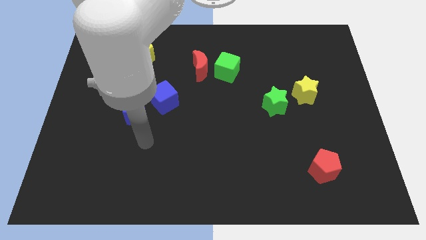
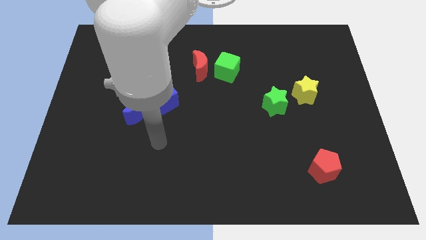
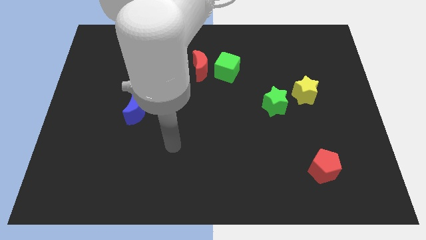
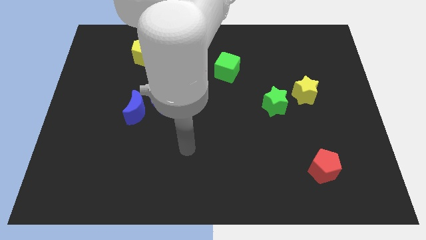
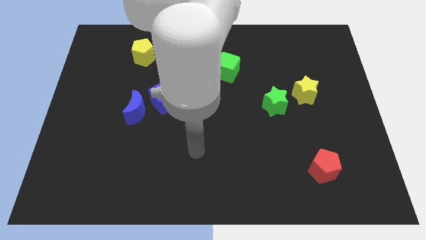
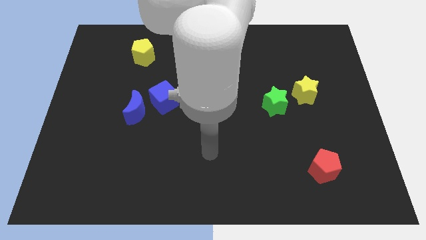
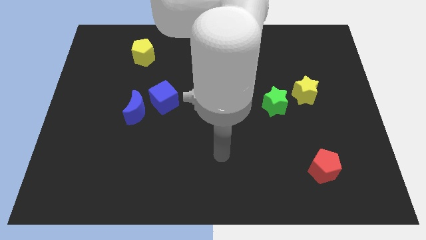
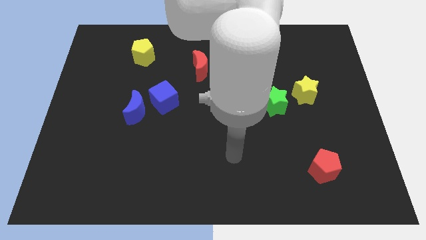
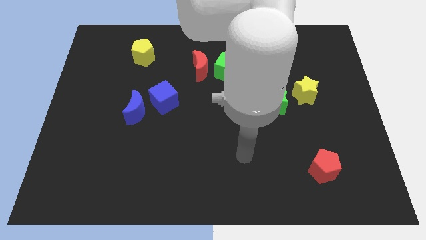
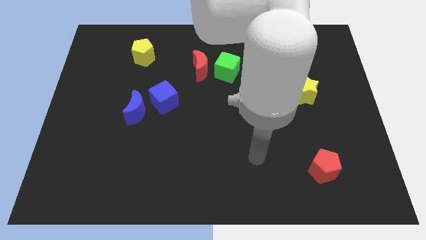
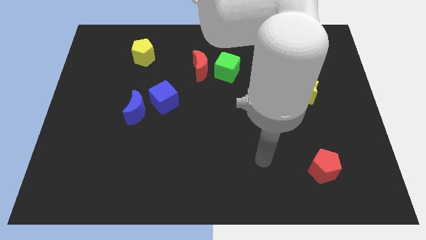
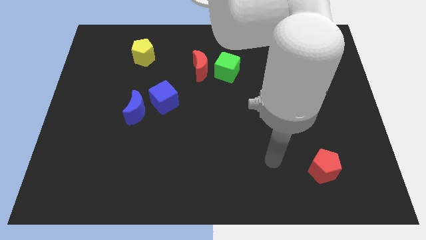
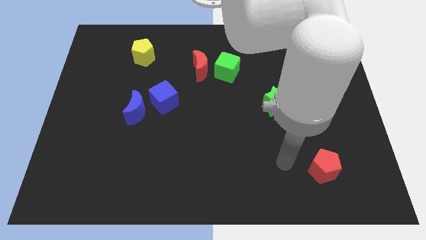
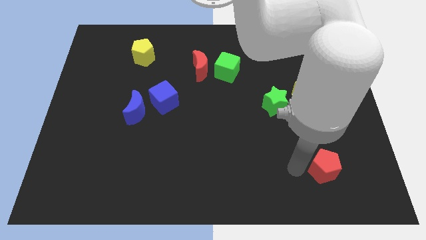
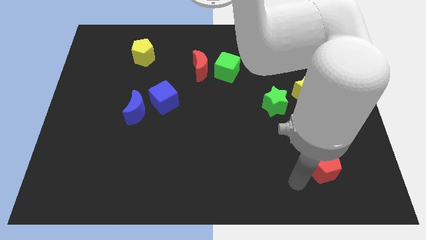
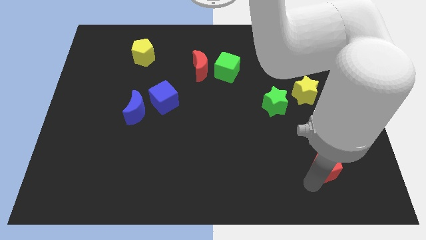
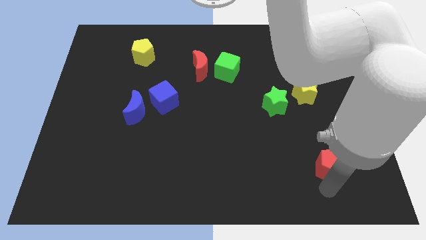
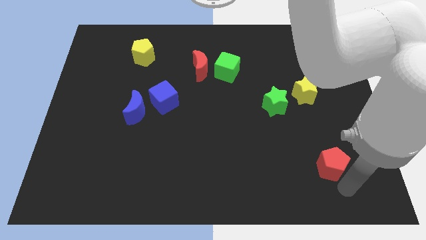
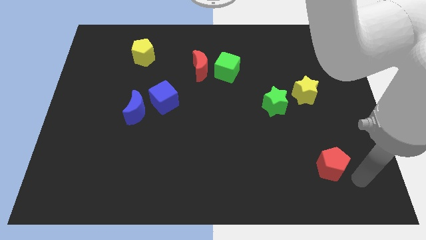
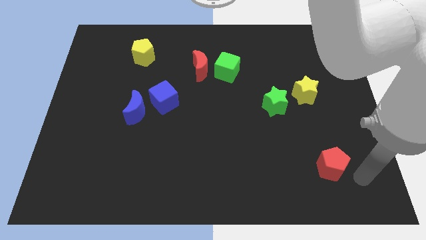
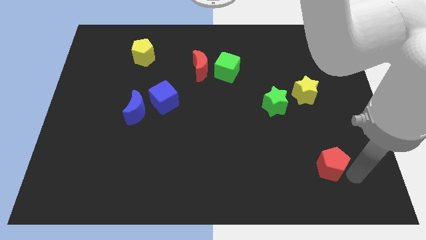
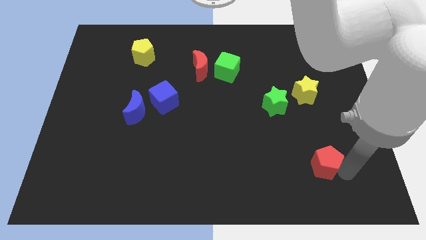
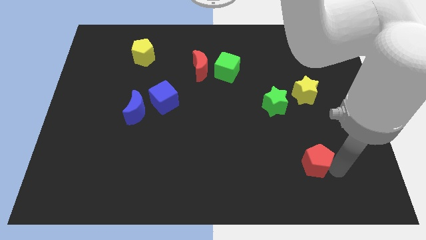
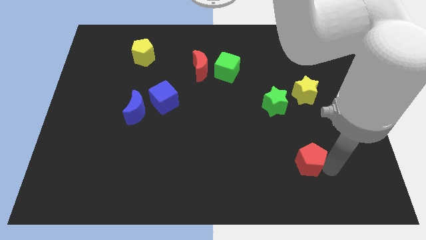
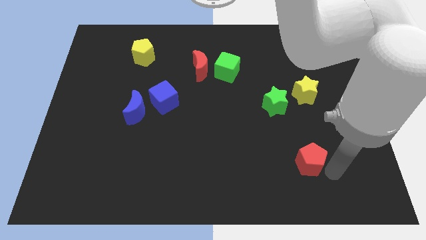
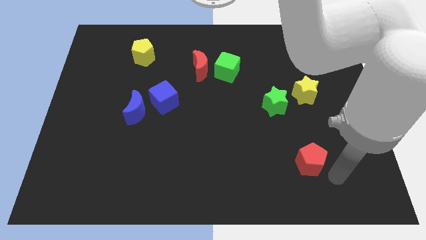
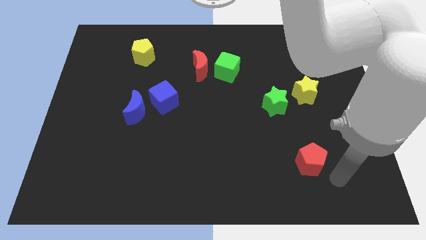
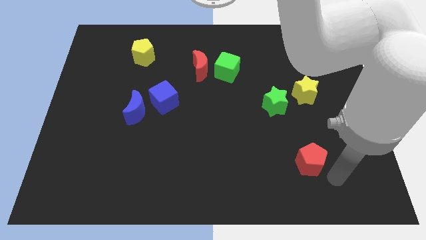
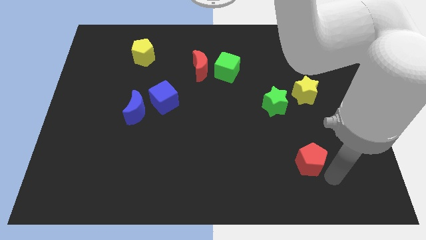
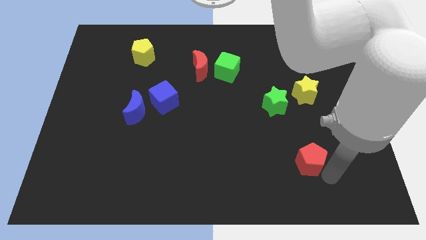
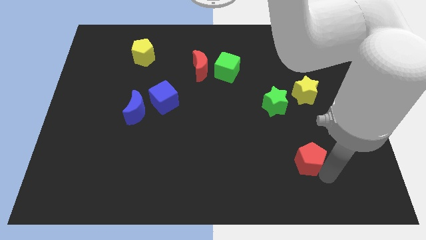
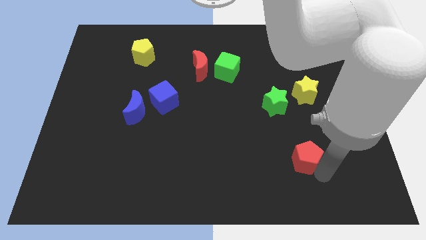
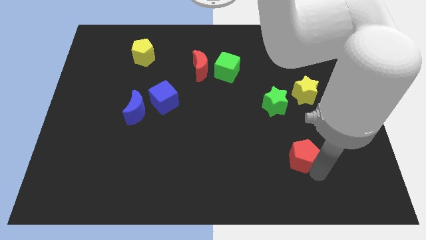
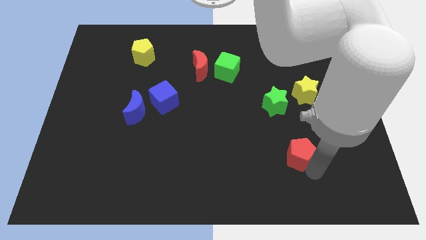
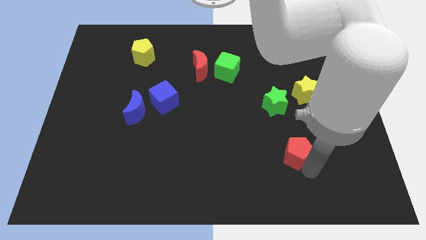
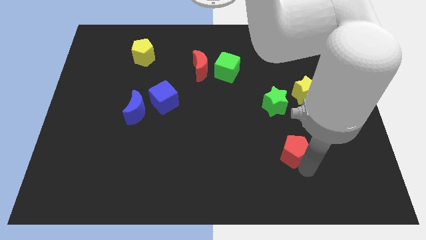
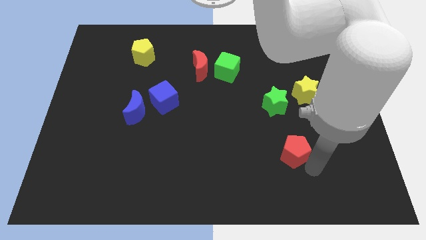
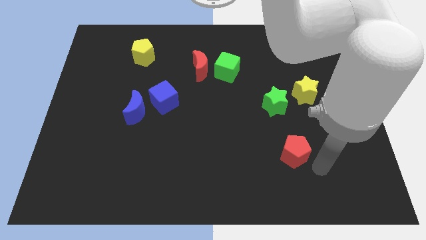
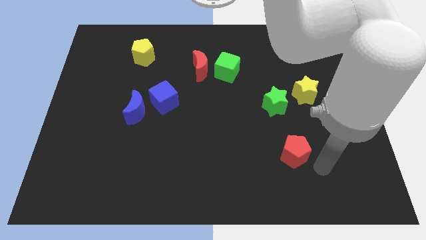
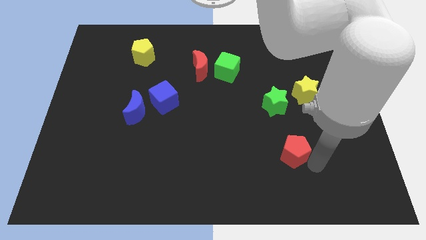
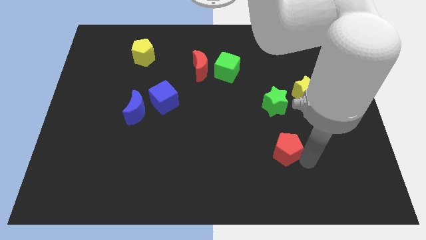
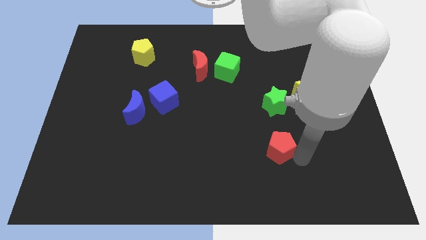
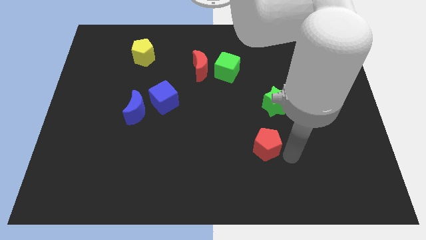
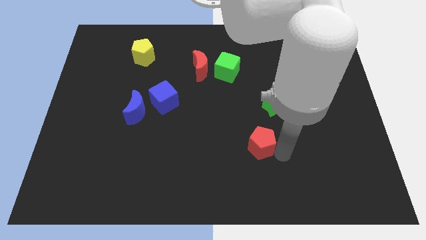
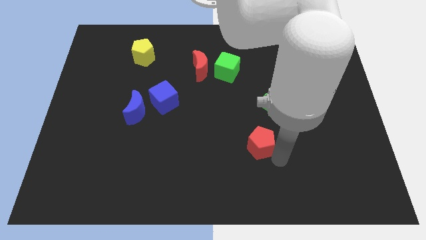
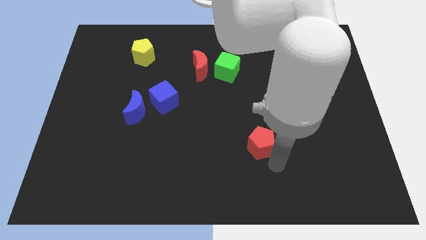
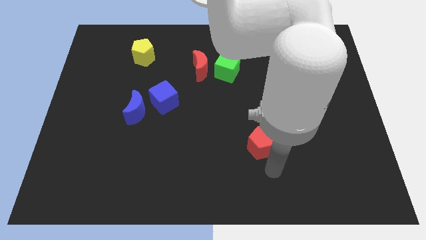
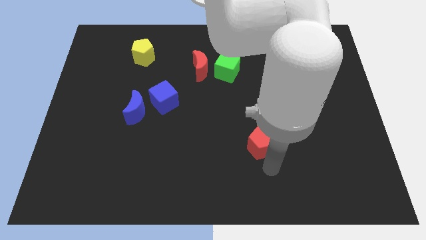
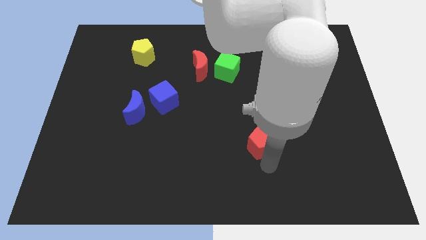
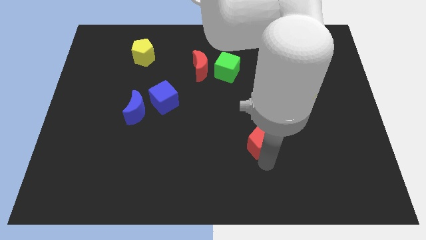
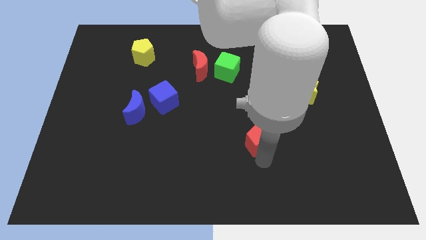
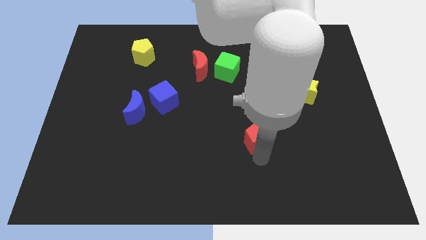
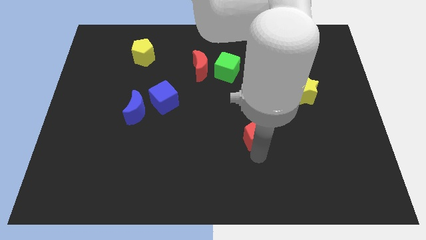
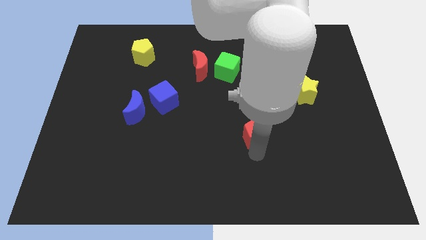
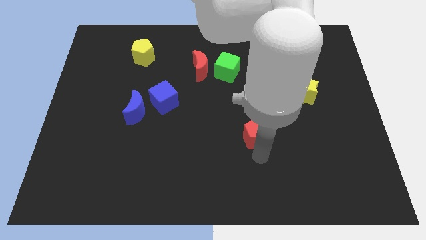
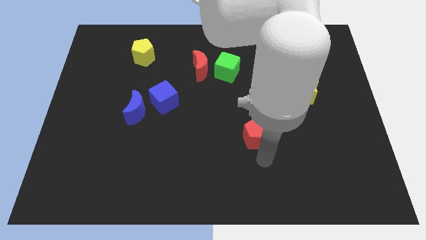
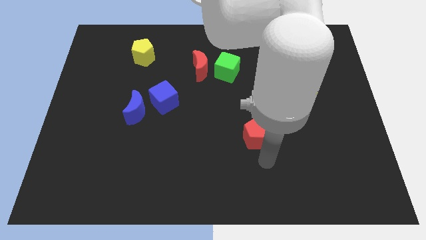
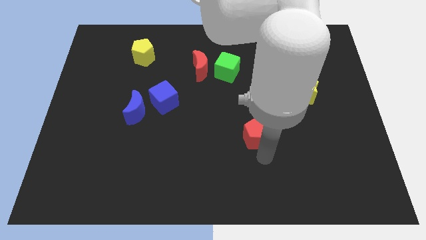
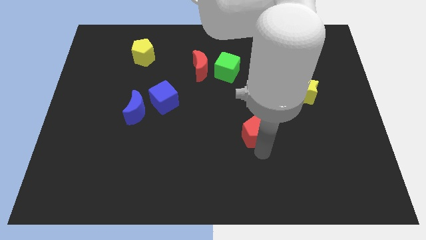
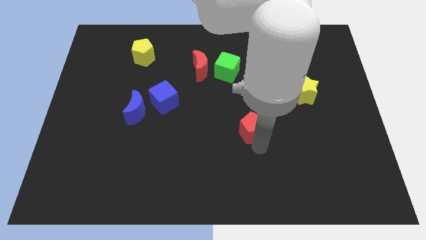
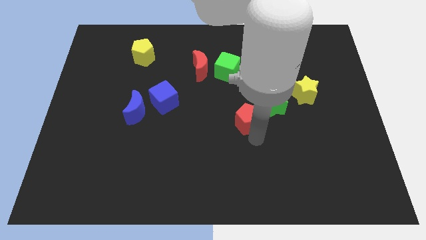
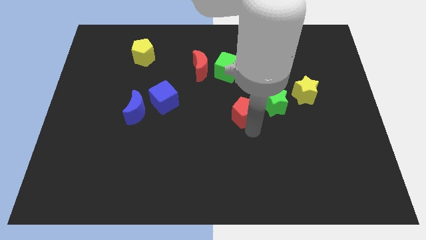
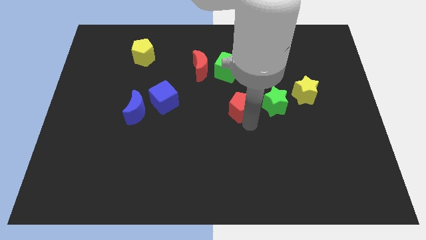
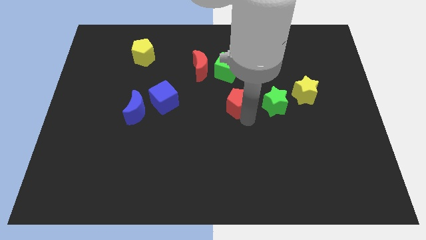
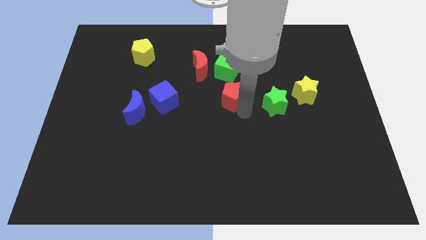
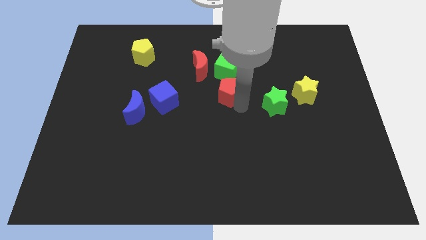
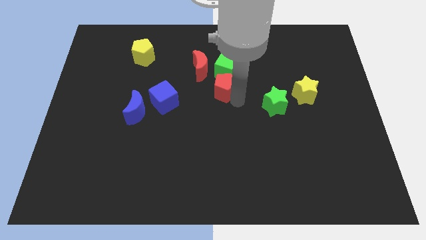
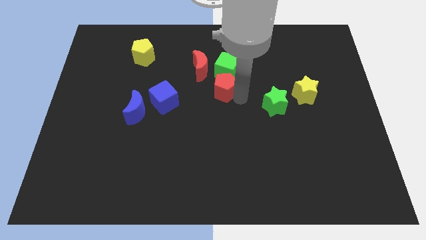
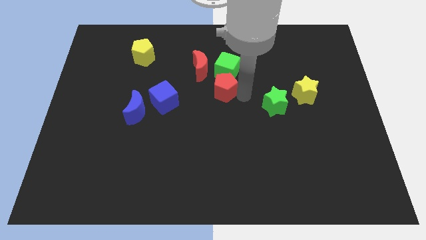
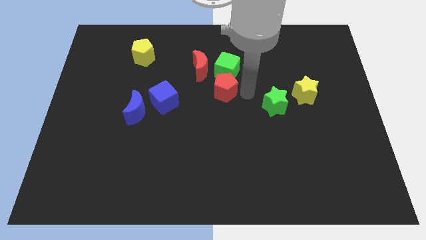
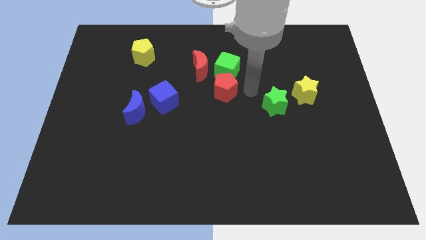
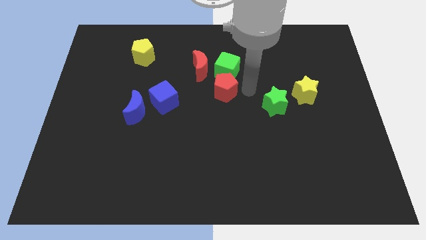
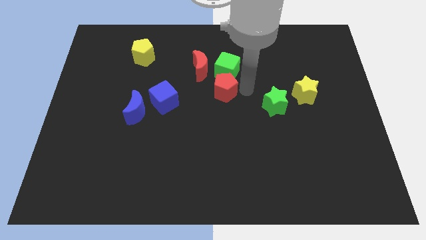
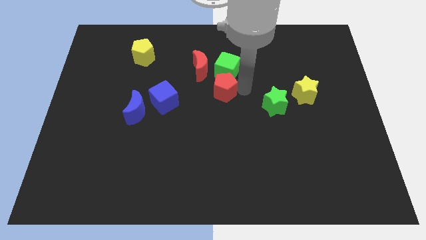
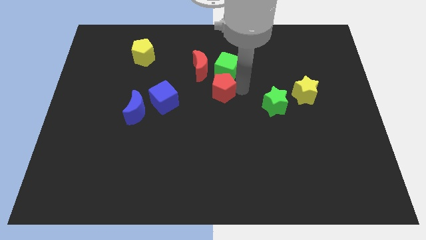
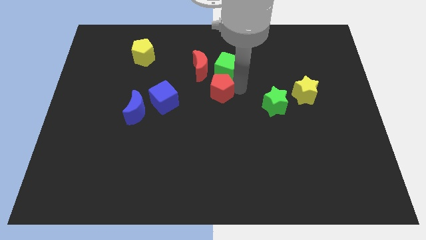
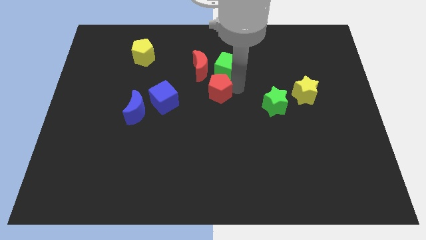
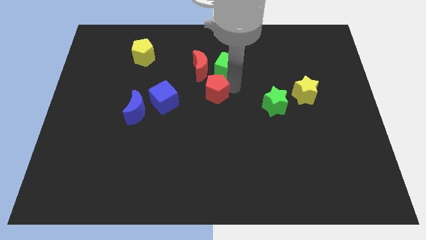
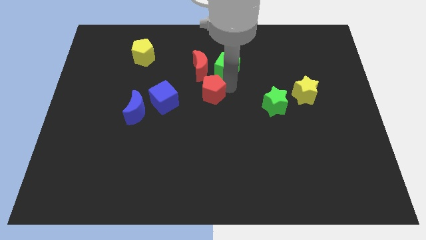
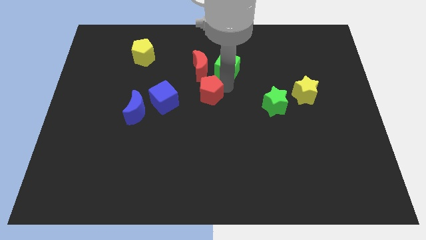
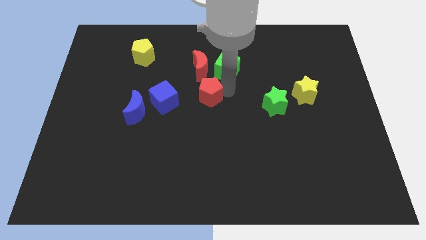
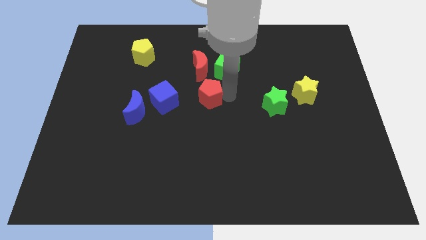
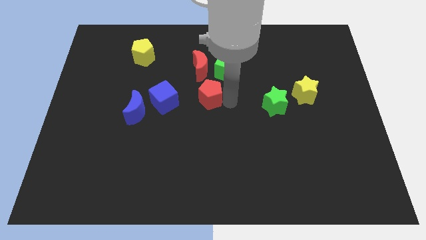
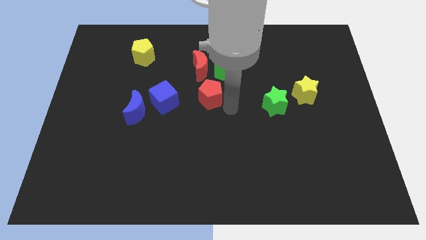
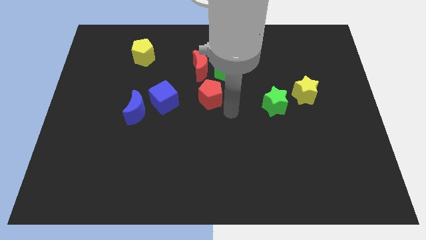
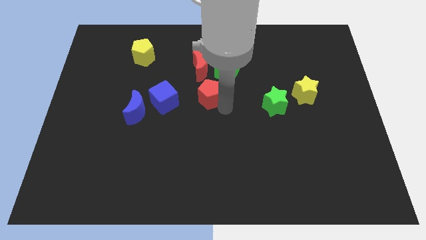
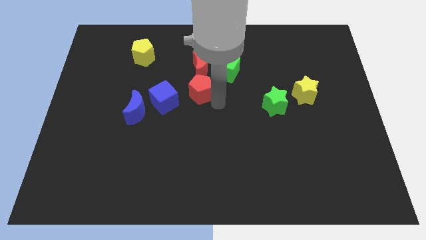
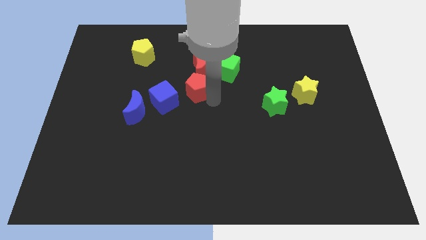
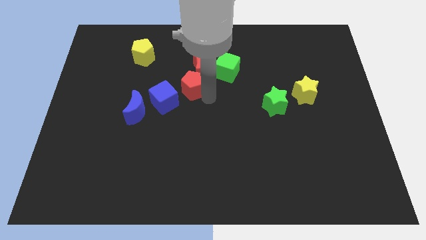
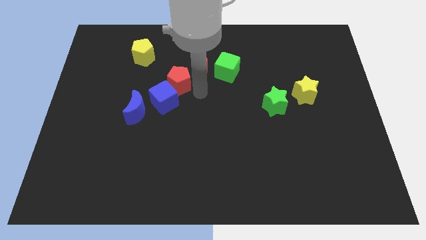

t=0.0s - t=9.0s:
put the red pentagon to the left of the red moon
